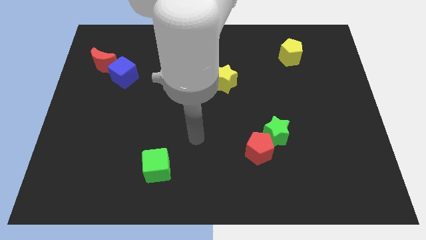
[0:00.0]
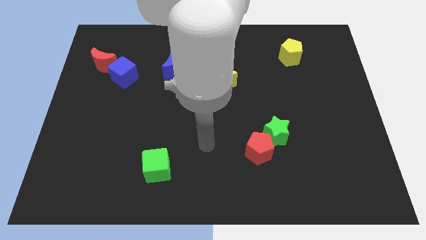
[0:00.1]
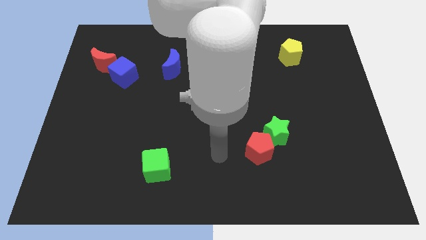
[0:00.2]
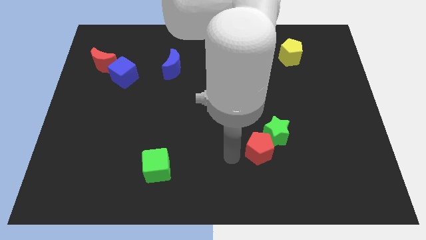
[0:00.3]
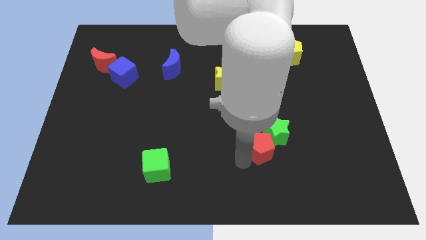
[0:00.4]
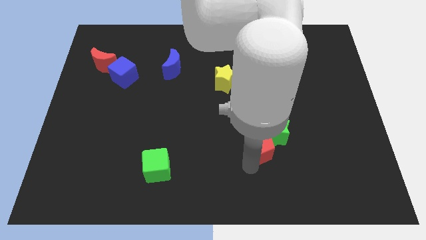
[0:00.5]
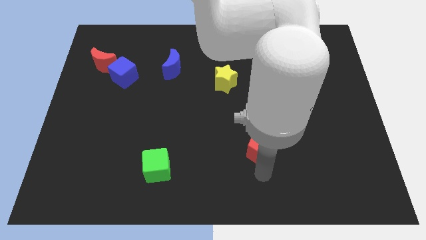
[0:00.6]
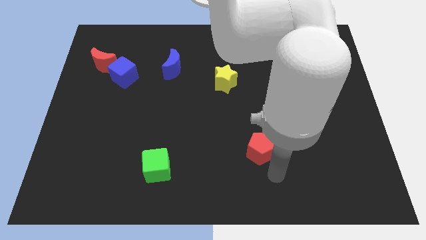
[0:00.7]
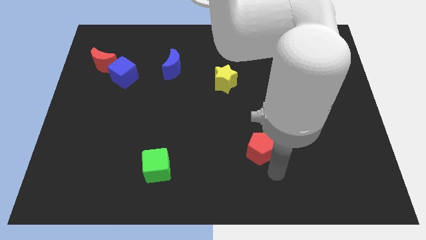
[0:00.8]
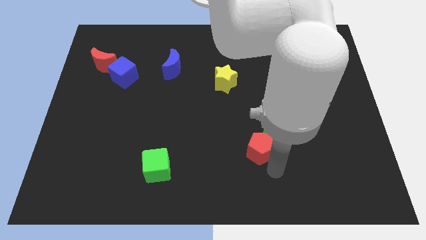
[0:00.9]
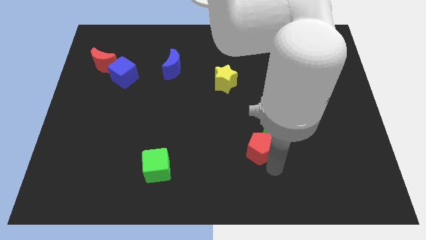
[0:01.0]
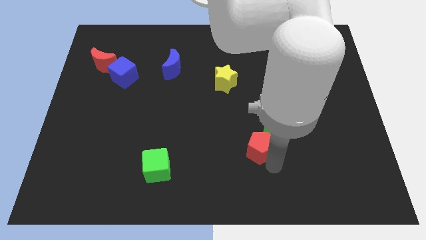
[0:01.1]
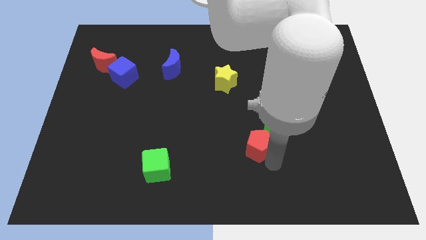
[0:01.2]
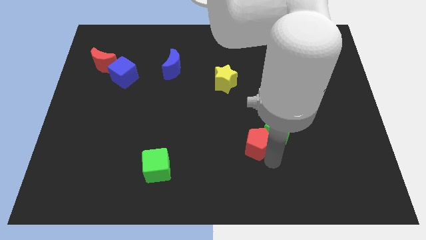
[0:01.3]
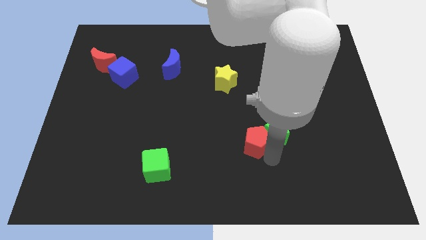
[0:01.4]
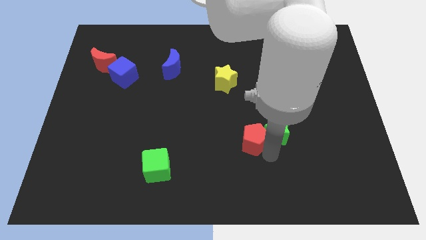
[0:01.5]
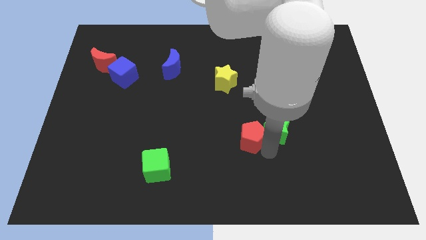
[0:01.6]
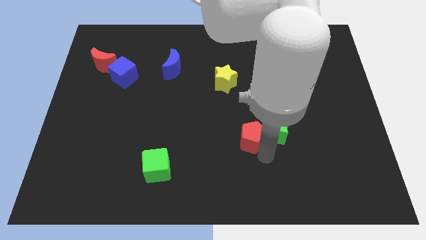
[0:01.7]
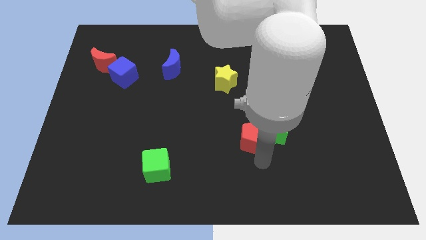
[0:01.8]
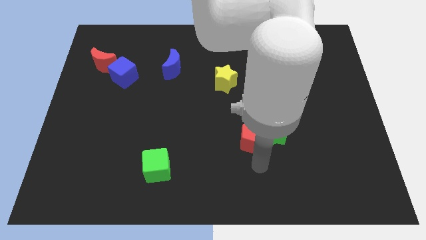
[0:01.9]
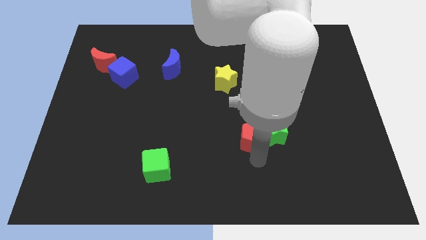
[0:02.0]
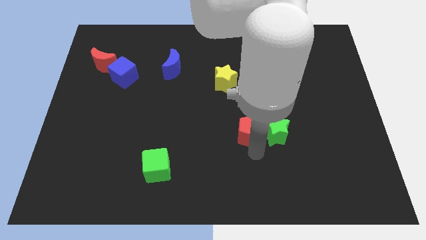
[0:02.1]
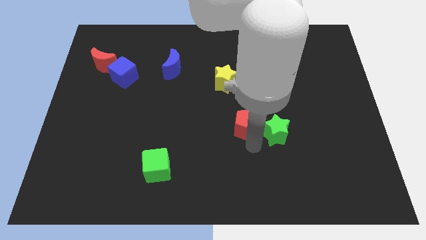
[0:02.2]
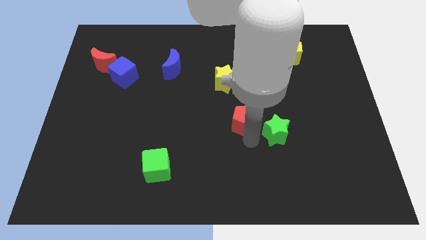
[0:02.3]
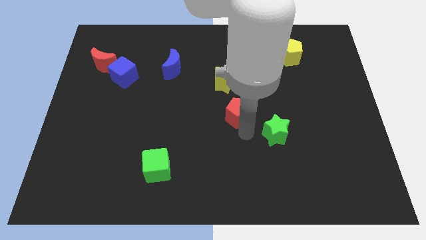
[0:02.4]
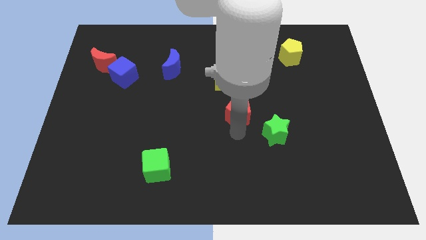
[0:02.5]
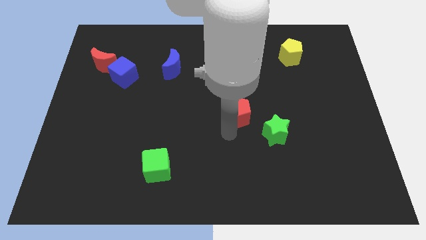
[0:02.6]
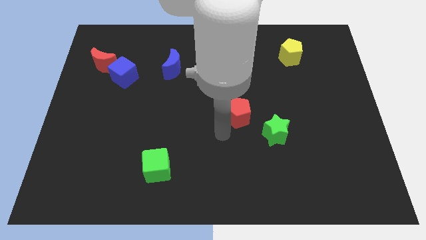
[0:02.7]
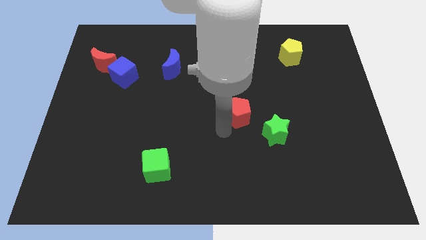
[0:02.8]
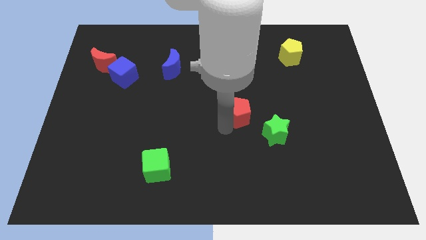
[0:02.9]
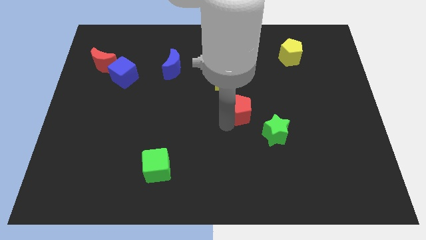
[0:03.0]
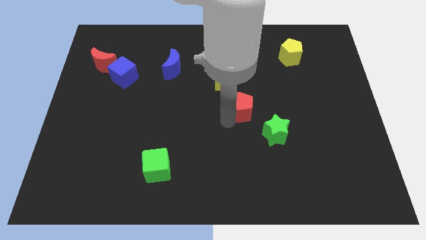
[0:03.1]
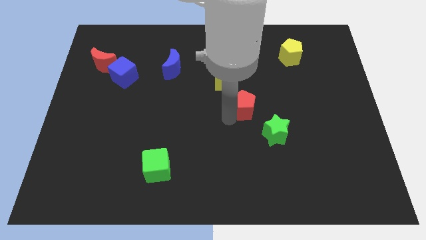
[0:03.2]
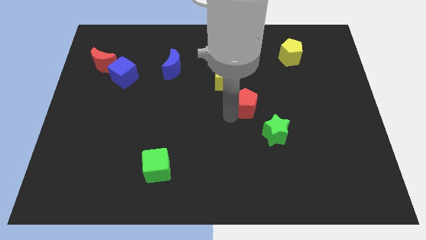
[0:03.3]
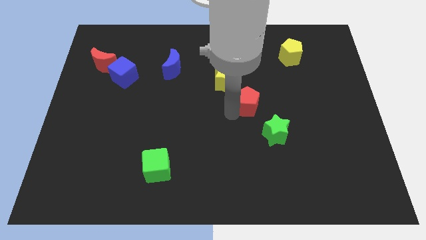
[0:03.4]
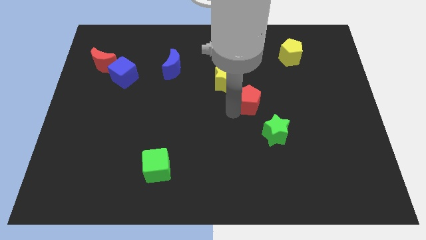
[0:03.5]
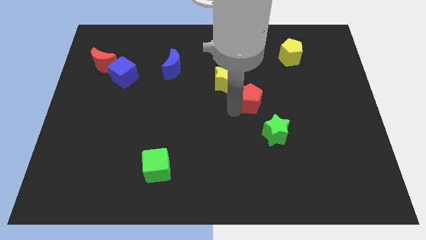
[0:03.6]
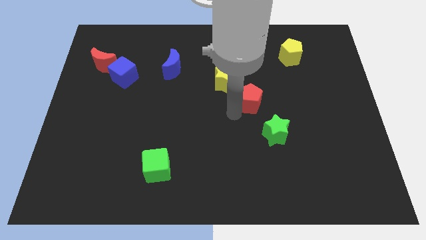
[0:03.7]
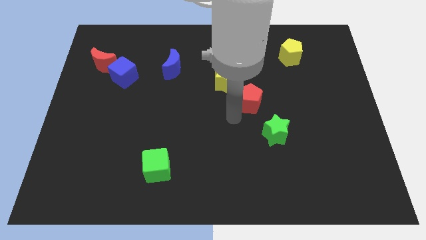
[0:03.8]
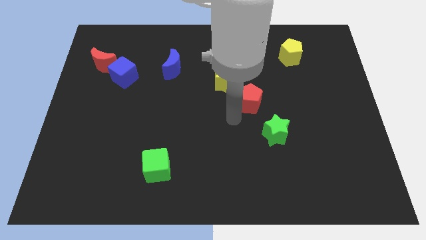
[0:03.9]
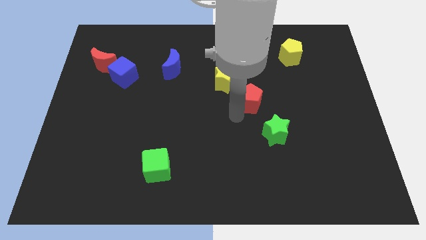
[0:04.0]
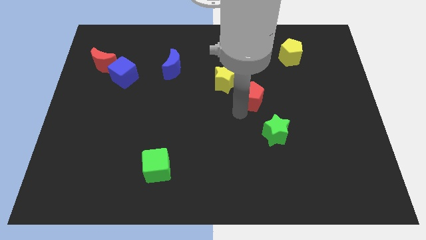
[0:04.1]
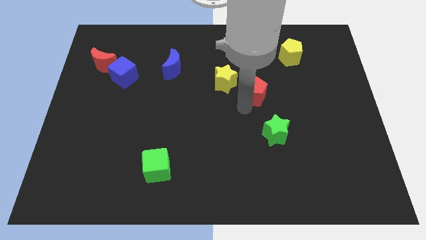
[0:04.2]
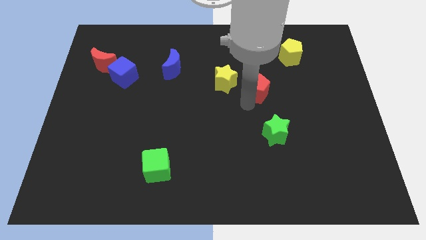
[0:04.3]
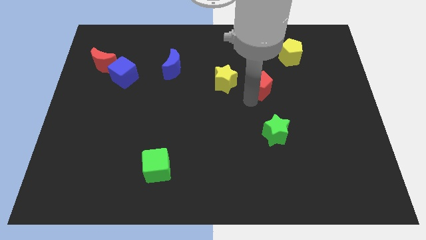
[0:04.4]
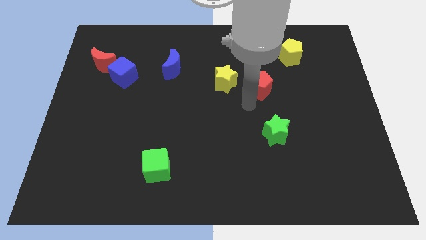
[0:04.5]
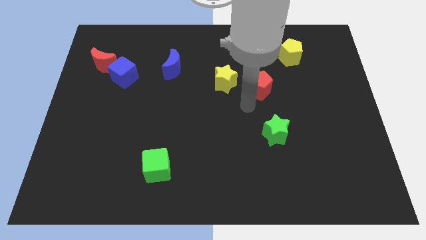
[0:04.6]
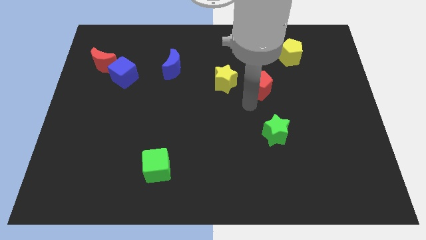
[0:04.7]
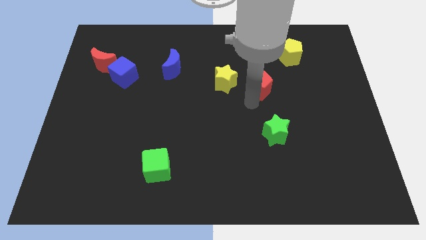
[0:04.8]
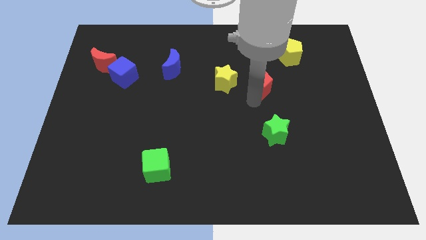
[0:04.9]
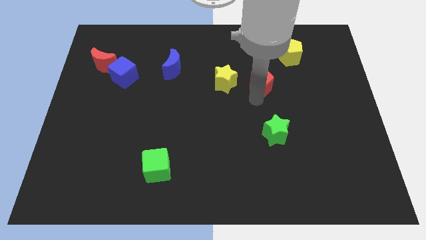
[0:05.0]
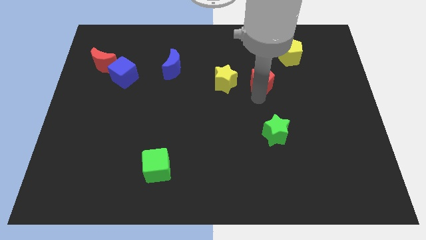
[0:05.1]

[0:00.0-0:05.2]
slide the red pentagon to the bottom left side of the yellow pentagon

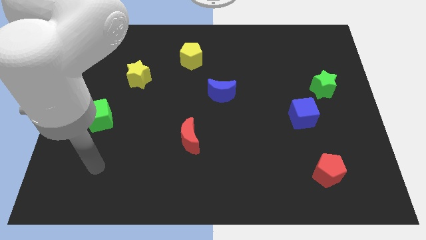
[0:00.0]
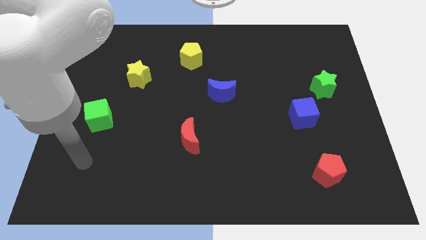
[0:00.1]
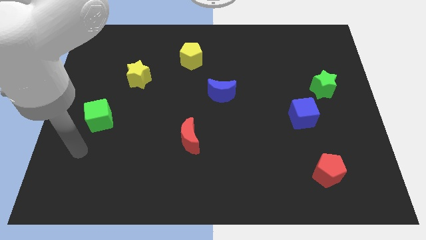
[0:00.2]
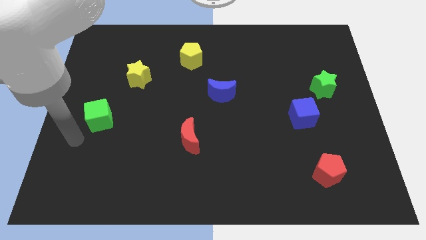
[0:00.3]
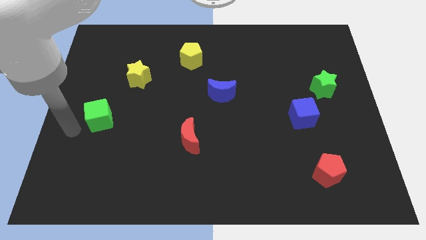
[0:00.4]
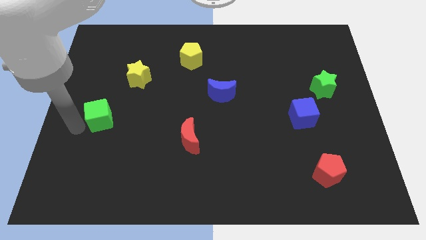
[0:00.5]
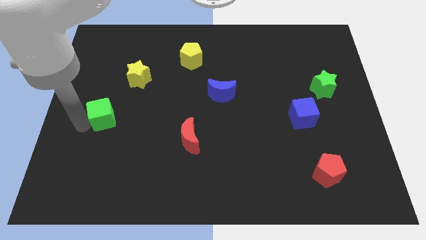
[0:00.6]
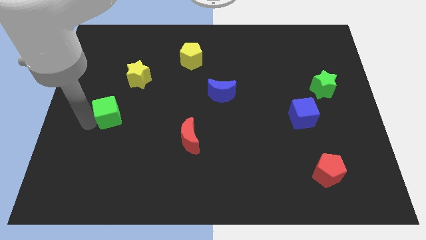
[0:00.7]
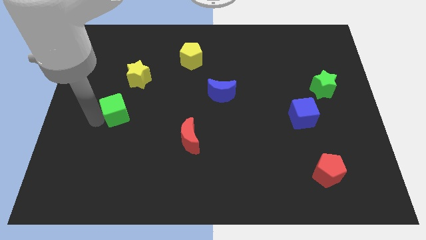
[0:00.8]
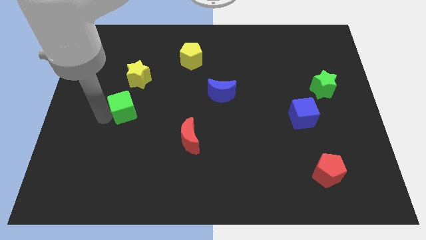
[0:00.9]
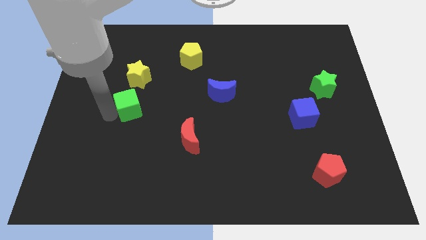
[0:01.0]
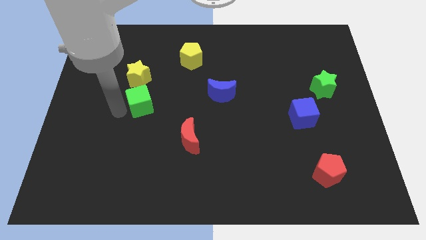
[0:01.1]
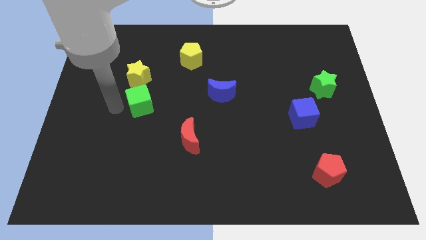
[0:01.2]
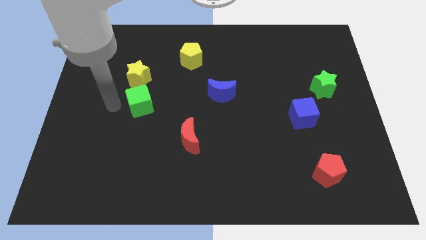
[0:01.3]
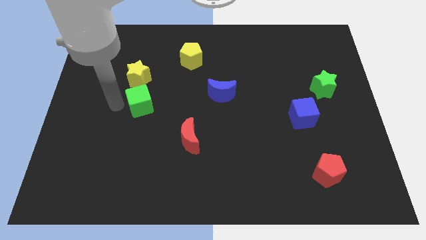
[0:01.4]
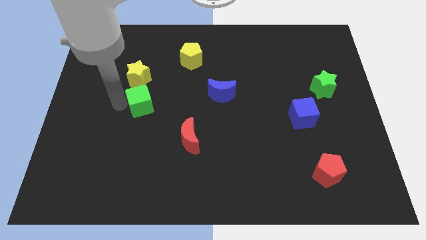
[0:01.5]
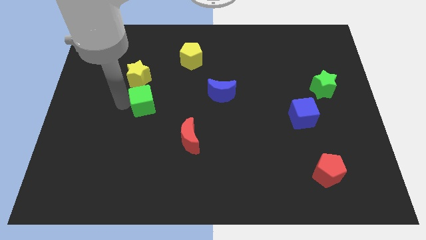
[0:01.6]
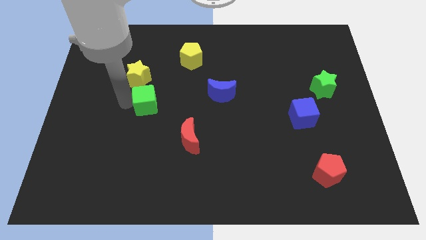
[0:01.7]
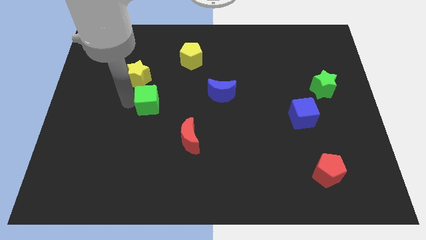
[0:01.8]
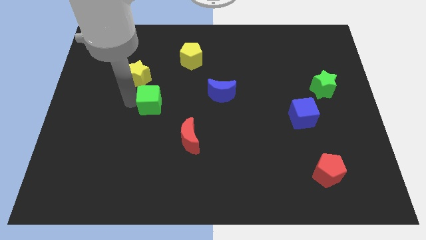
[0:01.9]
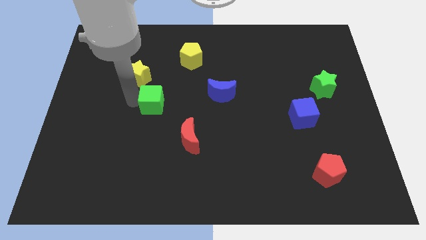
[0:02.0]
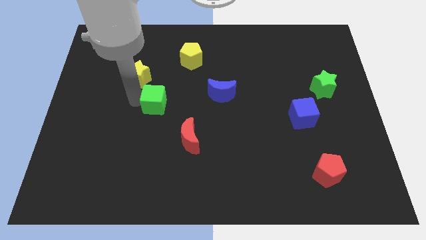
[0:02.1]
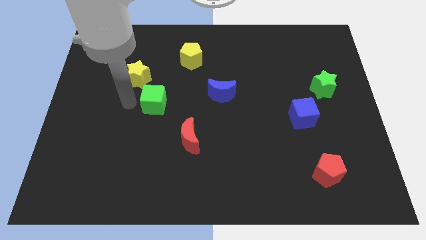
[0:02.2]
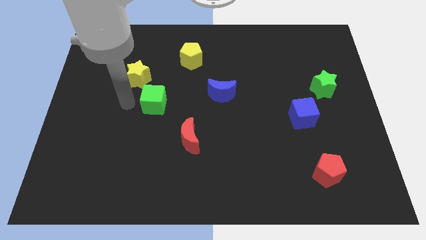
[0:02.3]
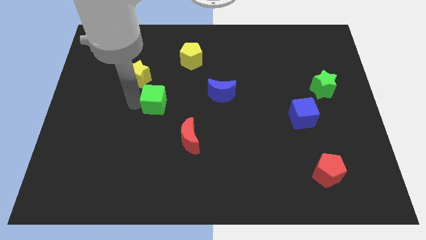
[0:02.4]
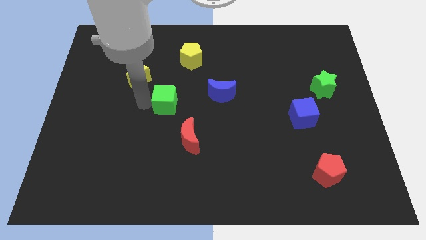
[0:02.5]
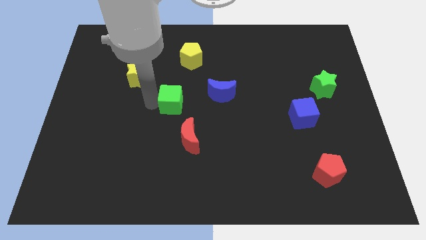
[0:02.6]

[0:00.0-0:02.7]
push the green cube to the top of the red moon
